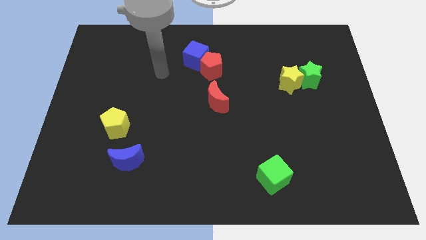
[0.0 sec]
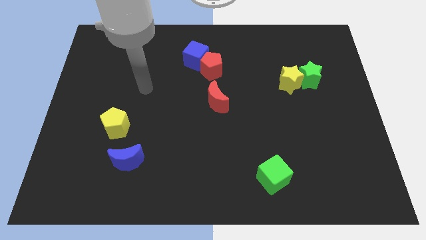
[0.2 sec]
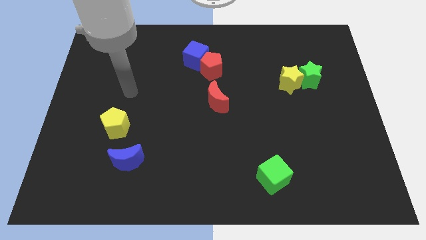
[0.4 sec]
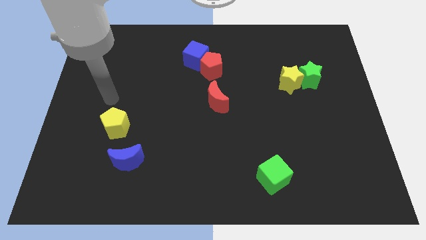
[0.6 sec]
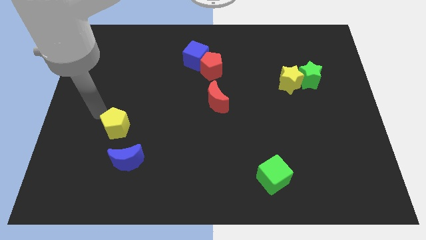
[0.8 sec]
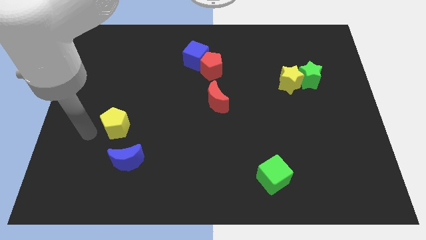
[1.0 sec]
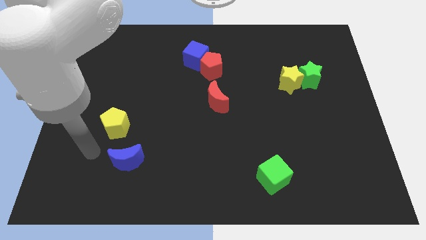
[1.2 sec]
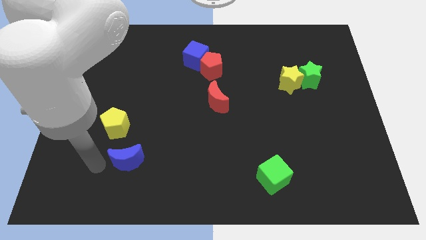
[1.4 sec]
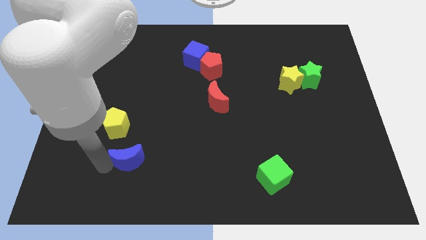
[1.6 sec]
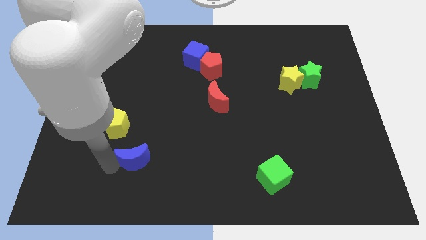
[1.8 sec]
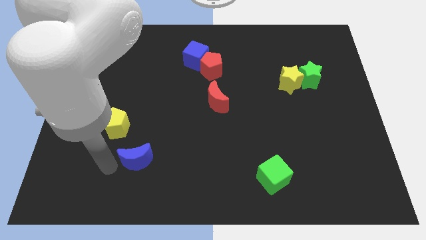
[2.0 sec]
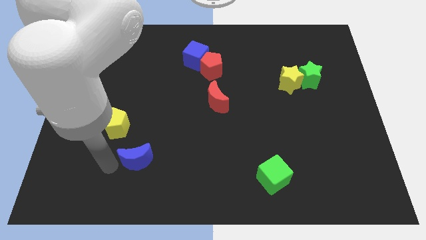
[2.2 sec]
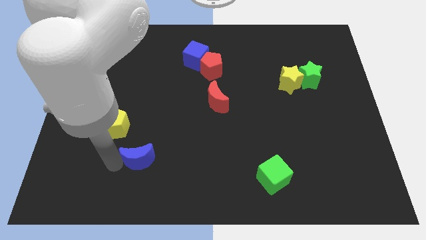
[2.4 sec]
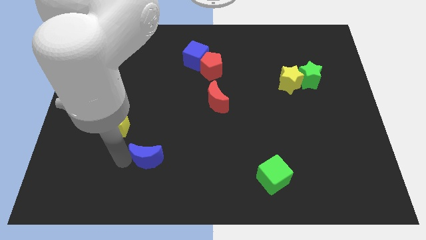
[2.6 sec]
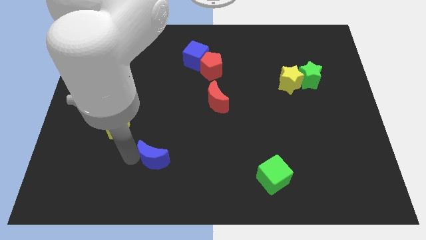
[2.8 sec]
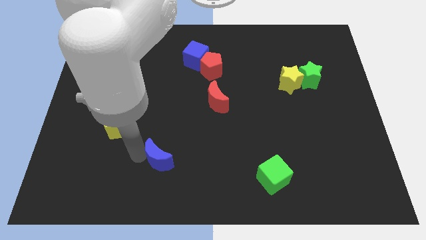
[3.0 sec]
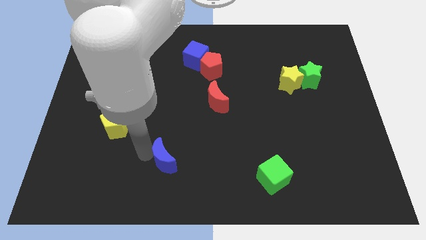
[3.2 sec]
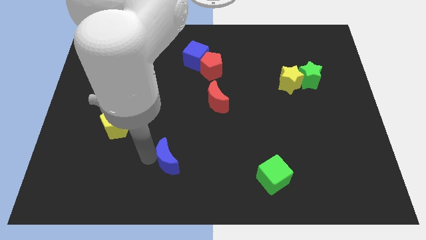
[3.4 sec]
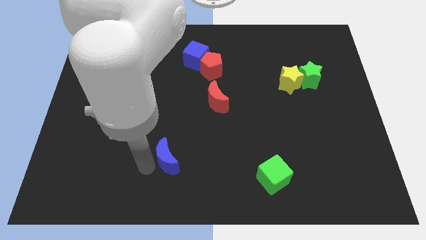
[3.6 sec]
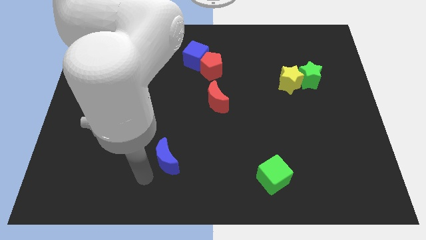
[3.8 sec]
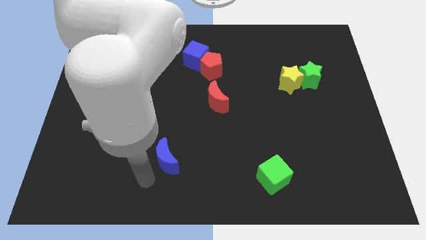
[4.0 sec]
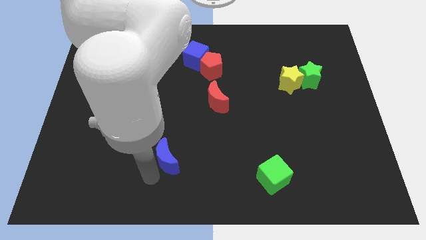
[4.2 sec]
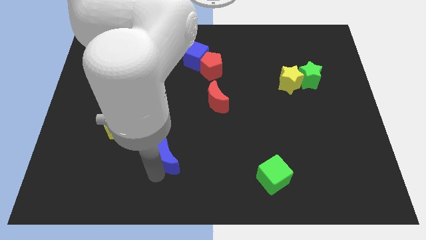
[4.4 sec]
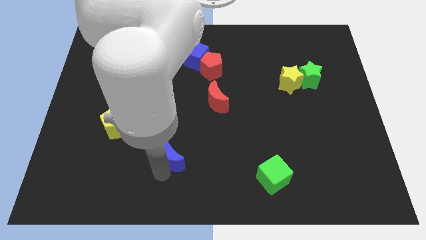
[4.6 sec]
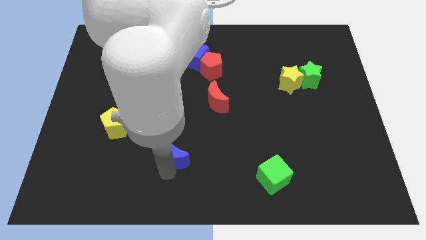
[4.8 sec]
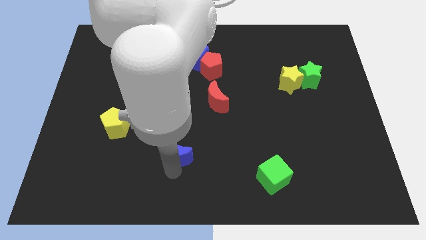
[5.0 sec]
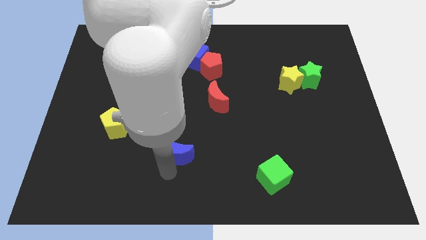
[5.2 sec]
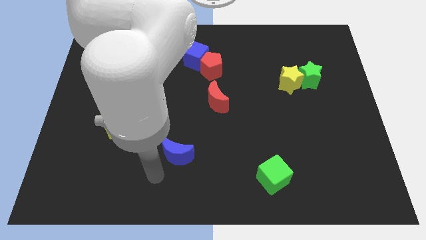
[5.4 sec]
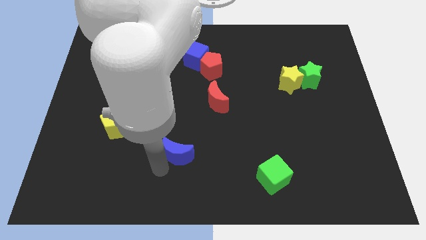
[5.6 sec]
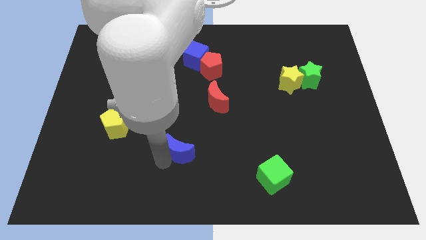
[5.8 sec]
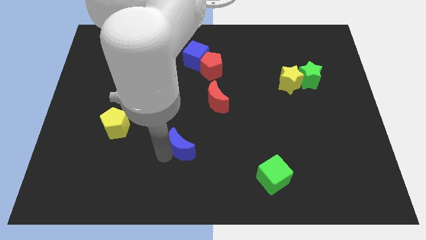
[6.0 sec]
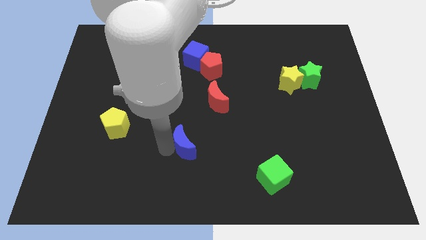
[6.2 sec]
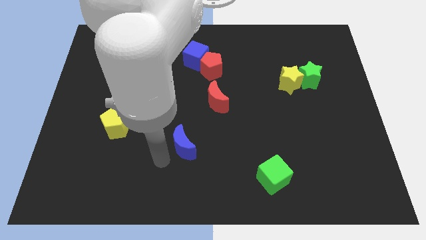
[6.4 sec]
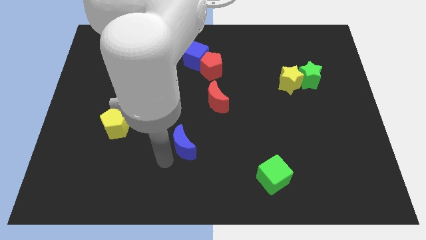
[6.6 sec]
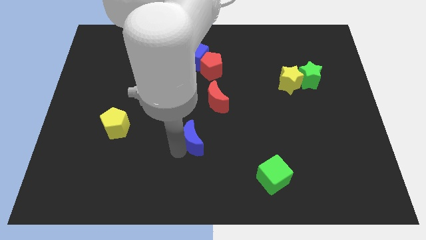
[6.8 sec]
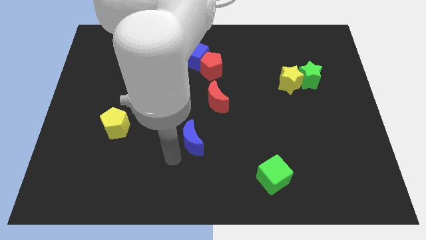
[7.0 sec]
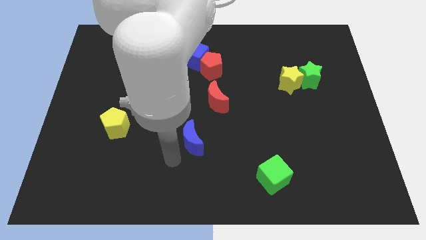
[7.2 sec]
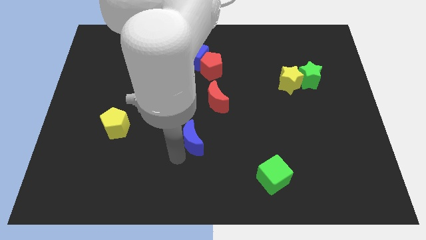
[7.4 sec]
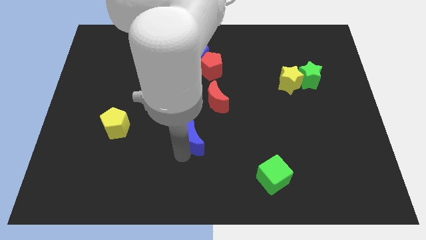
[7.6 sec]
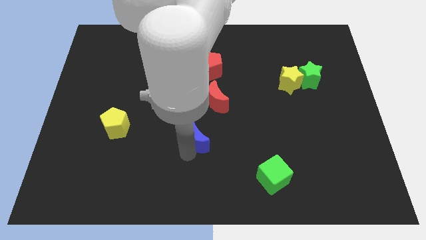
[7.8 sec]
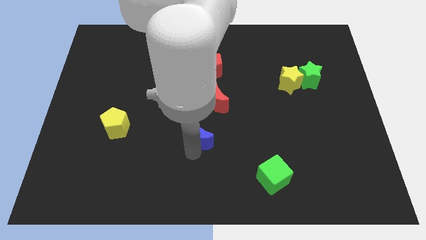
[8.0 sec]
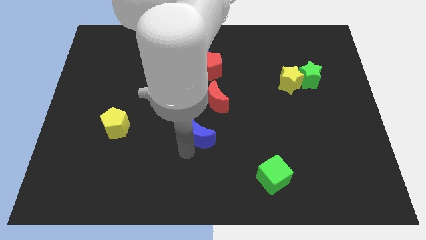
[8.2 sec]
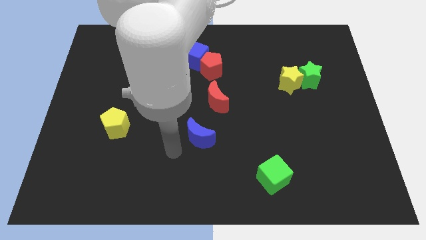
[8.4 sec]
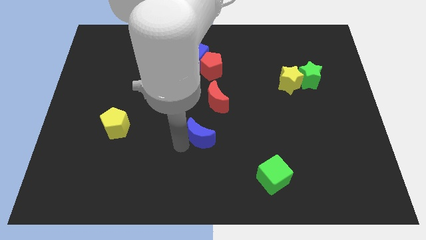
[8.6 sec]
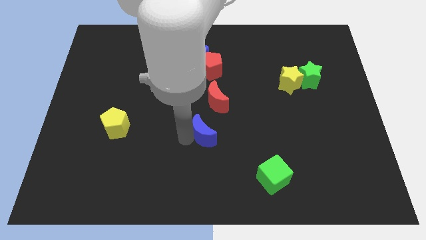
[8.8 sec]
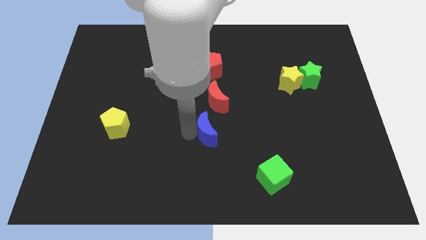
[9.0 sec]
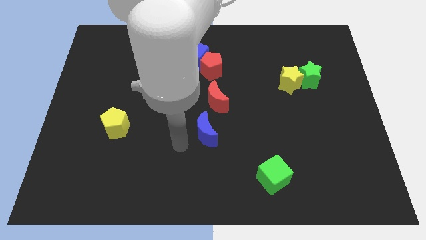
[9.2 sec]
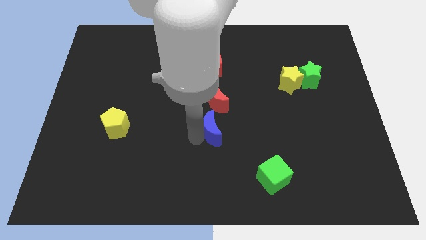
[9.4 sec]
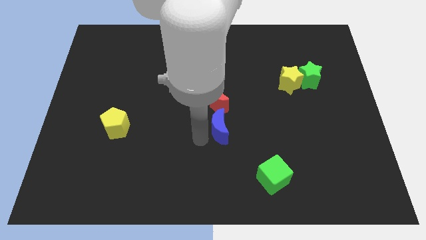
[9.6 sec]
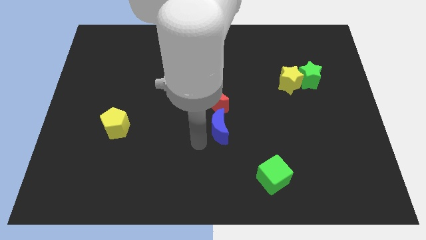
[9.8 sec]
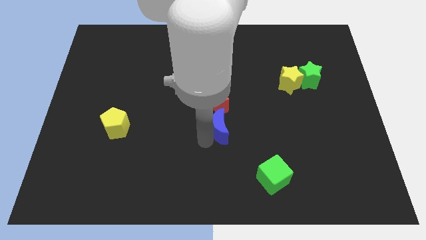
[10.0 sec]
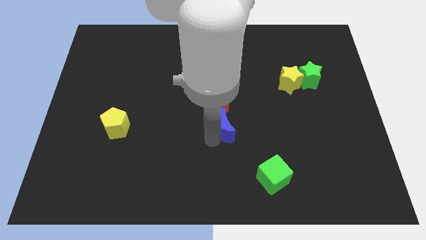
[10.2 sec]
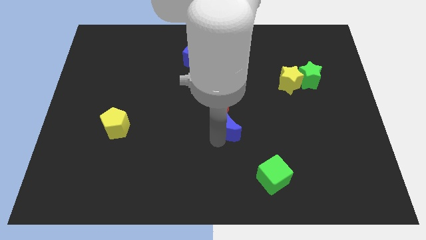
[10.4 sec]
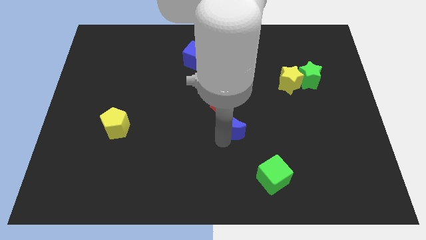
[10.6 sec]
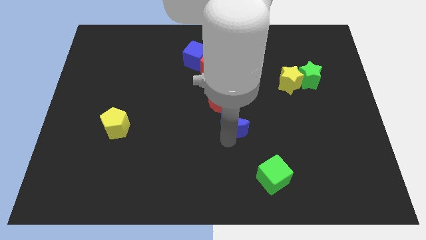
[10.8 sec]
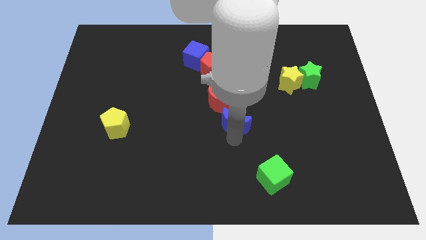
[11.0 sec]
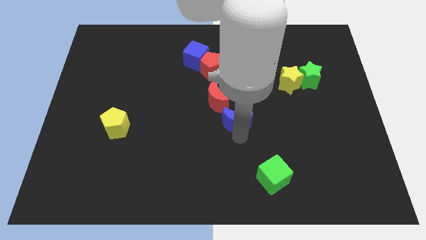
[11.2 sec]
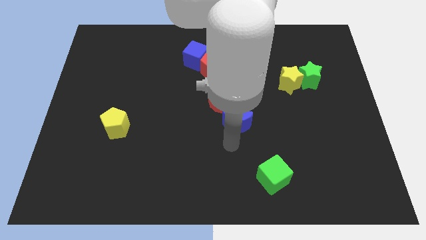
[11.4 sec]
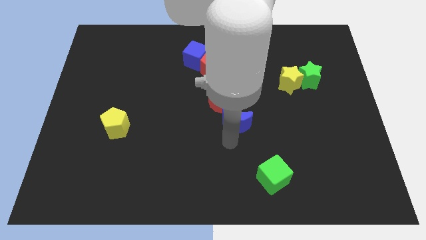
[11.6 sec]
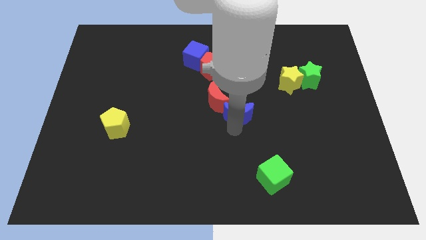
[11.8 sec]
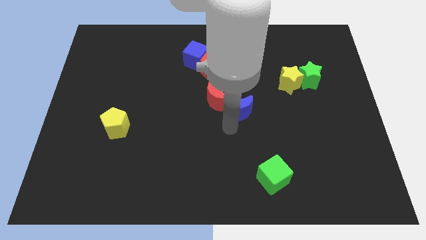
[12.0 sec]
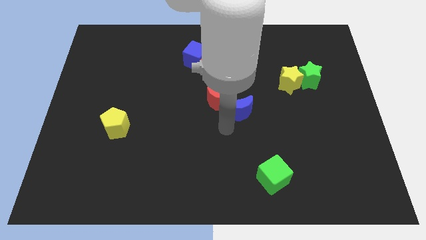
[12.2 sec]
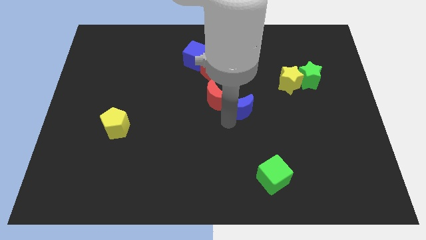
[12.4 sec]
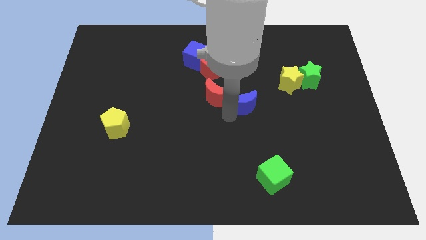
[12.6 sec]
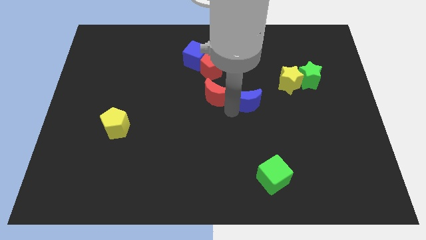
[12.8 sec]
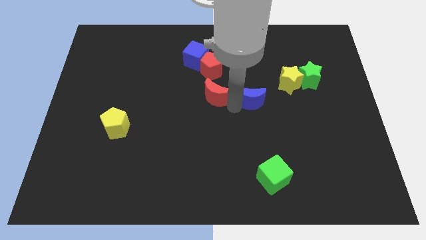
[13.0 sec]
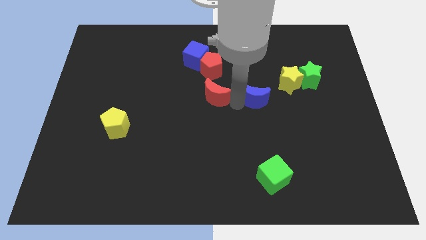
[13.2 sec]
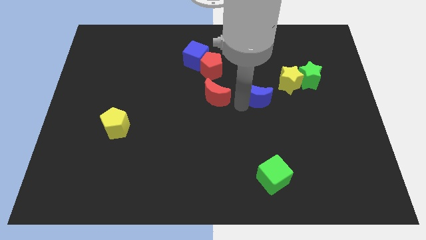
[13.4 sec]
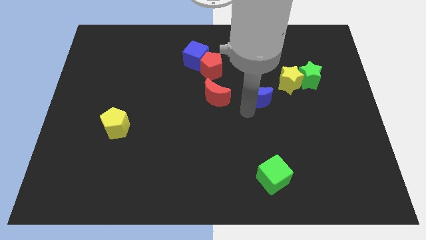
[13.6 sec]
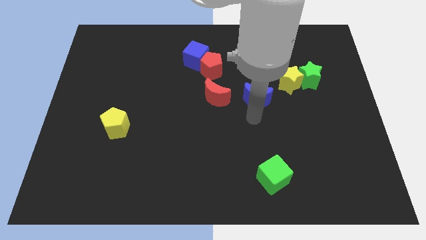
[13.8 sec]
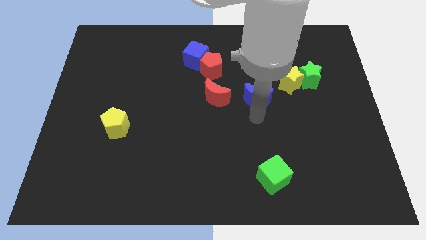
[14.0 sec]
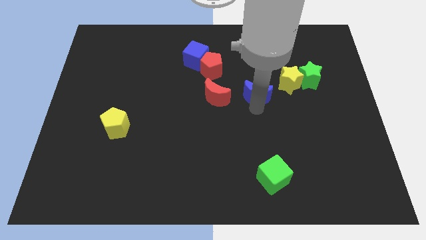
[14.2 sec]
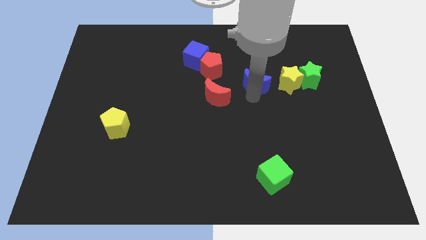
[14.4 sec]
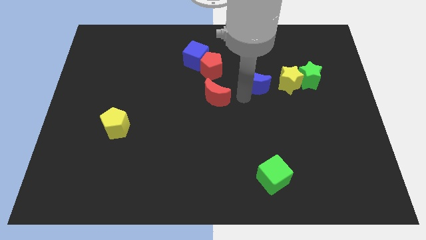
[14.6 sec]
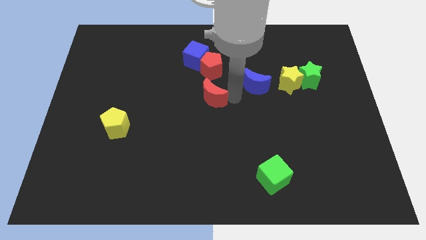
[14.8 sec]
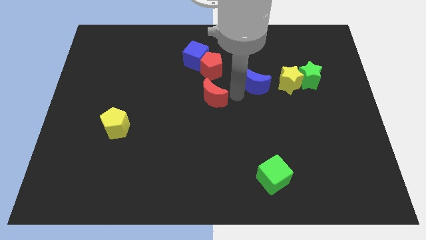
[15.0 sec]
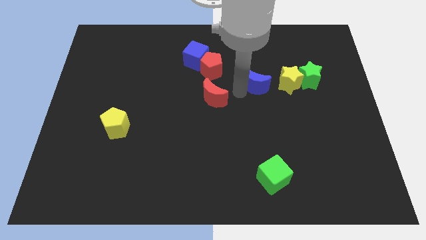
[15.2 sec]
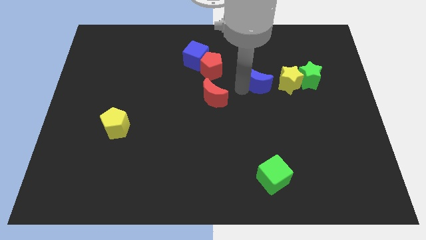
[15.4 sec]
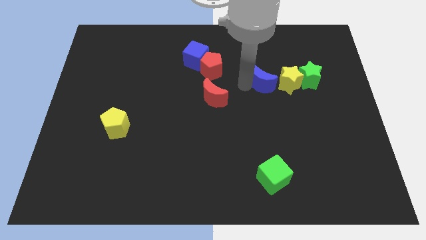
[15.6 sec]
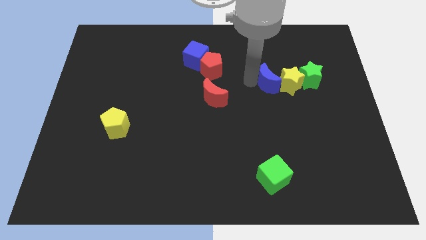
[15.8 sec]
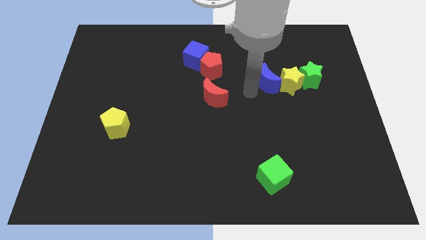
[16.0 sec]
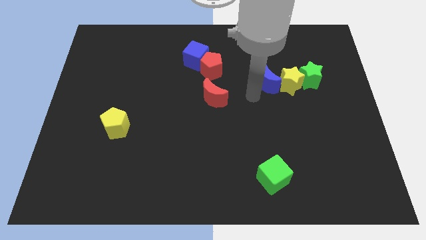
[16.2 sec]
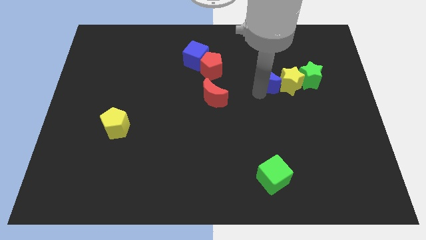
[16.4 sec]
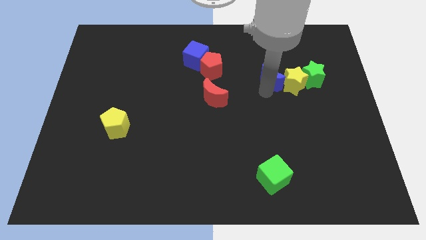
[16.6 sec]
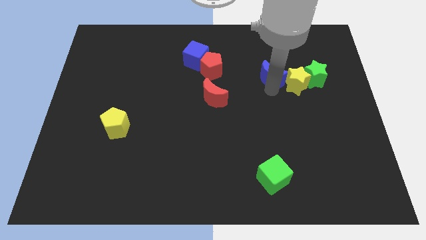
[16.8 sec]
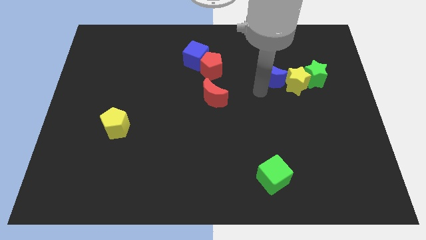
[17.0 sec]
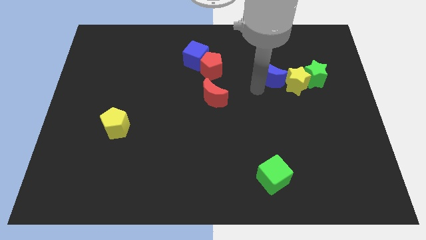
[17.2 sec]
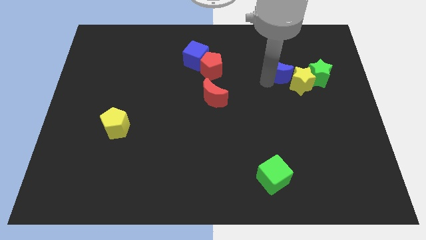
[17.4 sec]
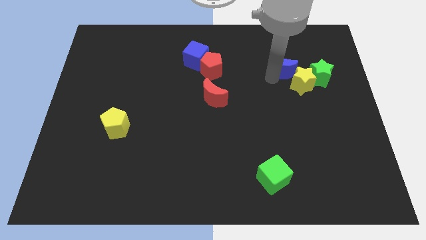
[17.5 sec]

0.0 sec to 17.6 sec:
put the blue moon to the top left of the green star
